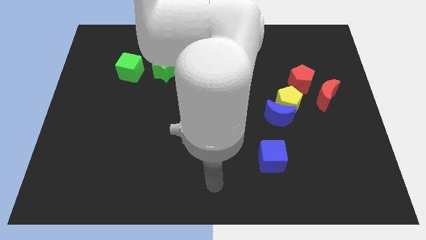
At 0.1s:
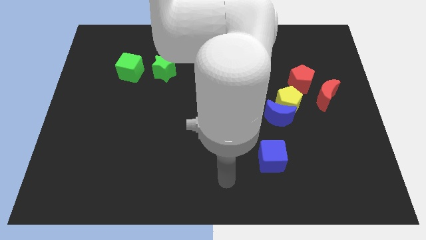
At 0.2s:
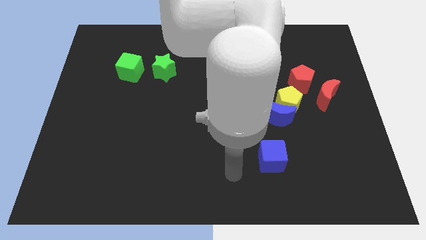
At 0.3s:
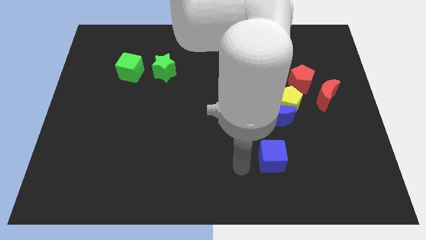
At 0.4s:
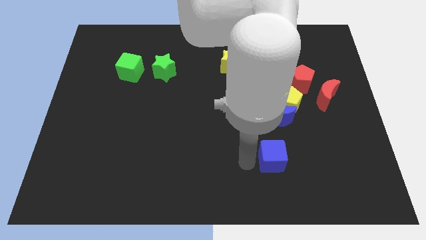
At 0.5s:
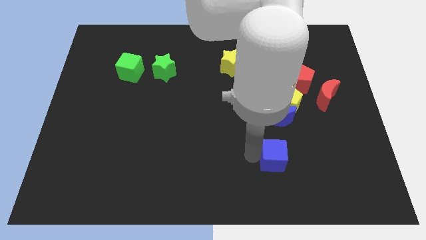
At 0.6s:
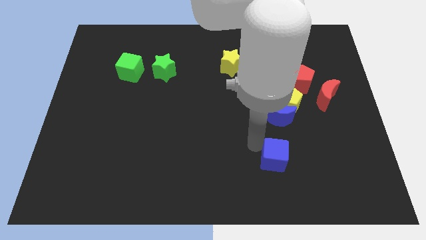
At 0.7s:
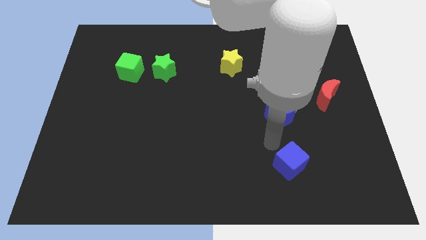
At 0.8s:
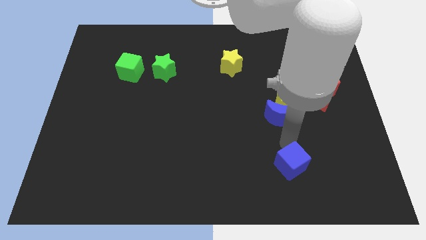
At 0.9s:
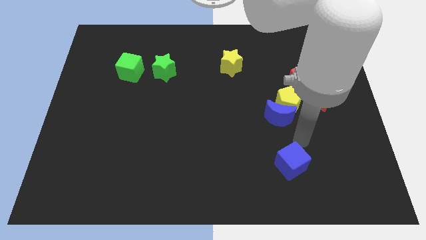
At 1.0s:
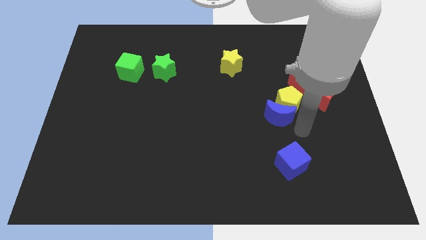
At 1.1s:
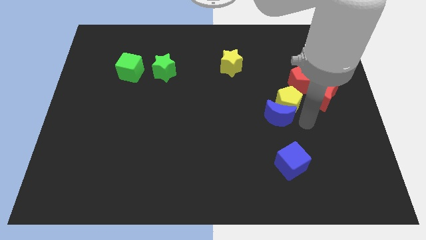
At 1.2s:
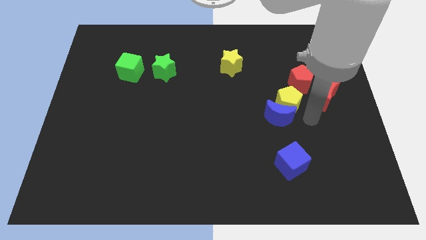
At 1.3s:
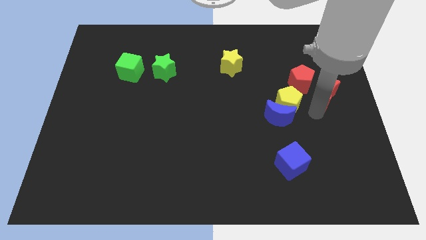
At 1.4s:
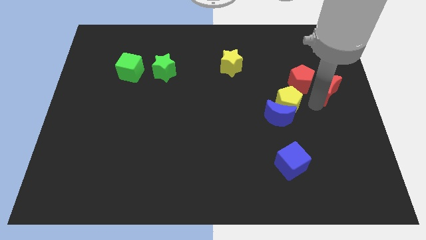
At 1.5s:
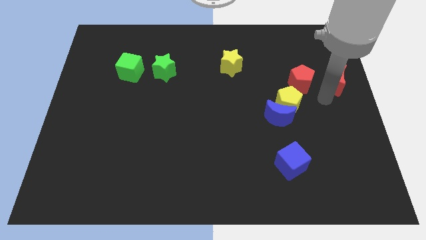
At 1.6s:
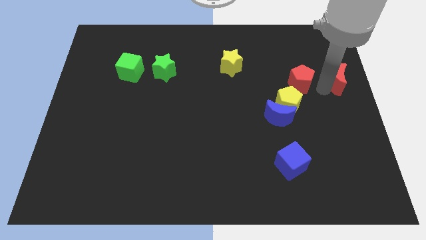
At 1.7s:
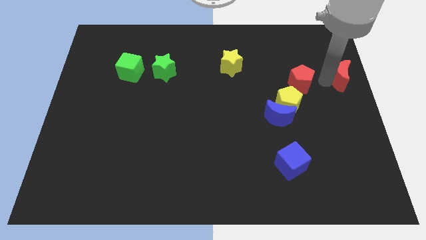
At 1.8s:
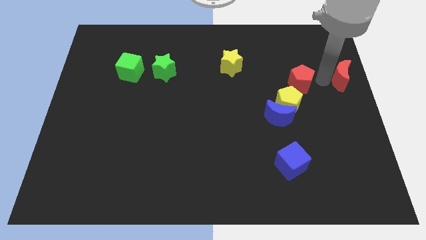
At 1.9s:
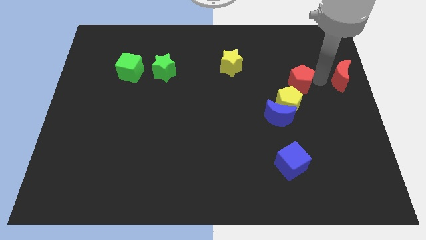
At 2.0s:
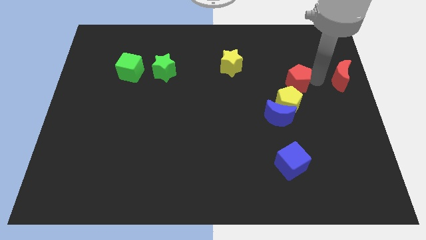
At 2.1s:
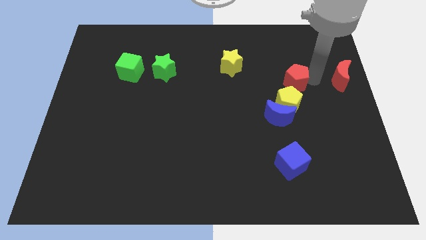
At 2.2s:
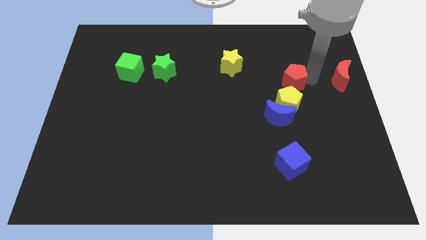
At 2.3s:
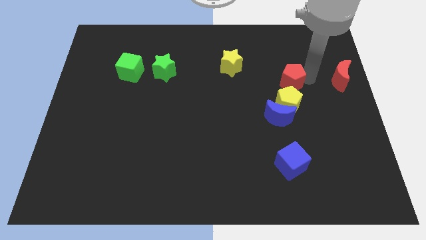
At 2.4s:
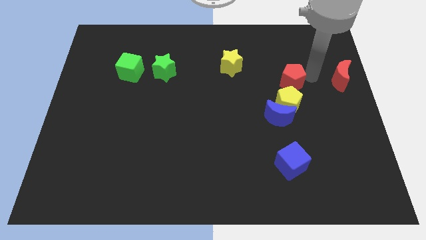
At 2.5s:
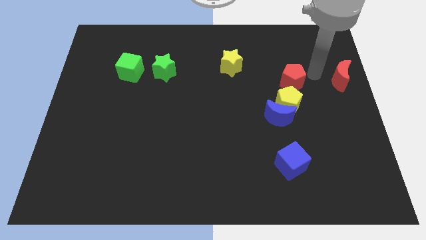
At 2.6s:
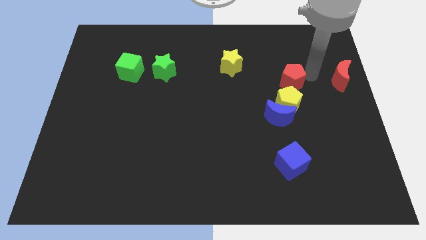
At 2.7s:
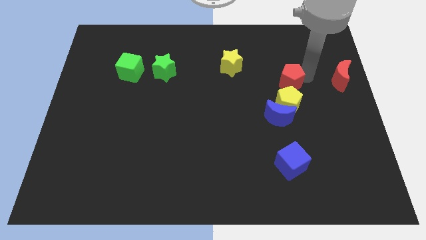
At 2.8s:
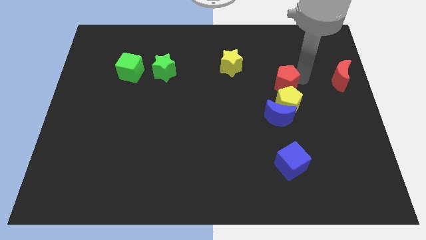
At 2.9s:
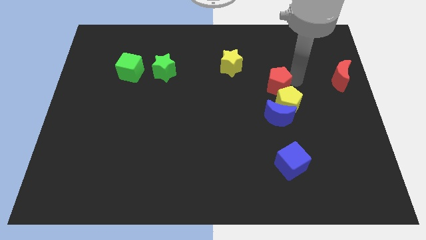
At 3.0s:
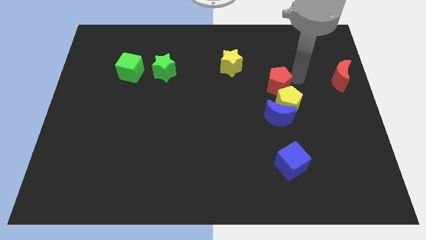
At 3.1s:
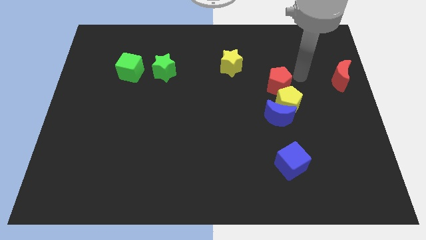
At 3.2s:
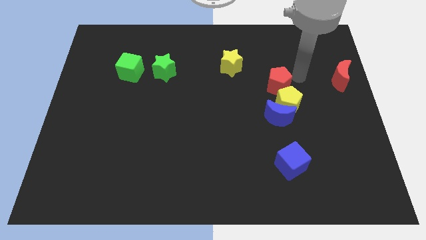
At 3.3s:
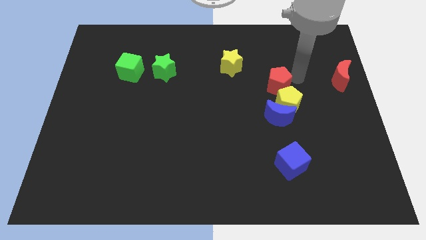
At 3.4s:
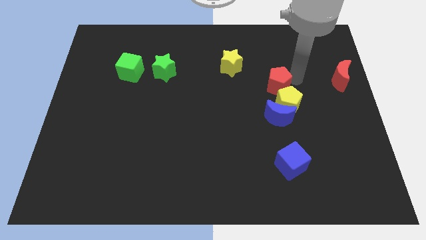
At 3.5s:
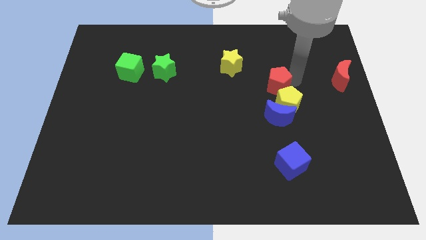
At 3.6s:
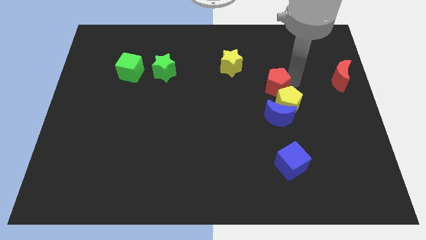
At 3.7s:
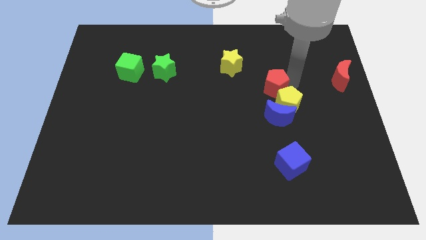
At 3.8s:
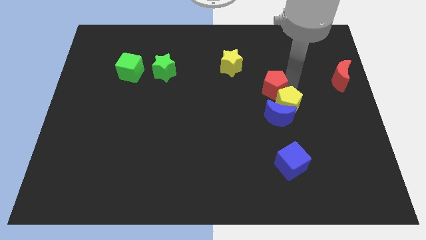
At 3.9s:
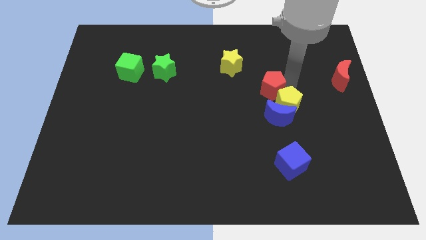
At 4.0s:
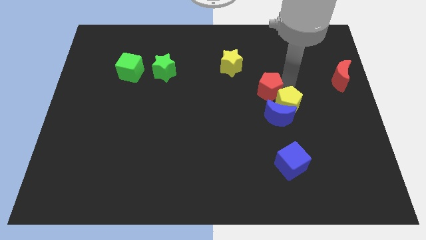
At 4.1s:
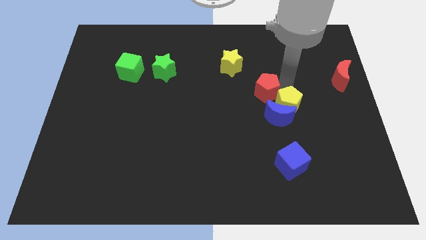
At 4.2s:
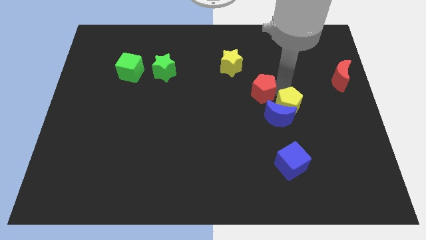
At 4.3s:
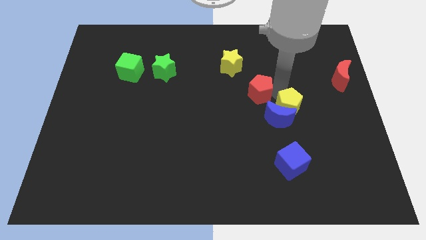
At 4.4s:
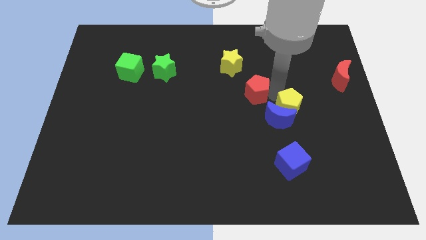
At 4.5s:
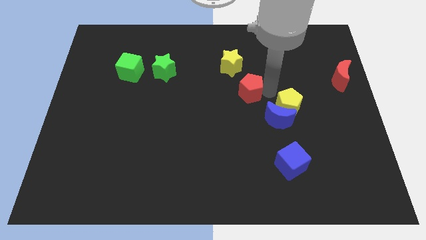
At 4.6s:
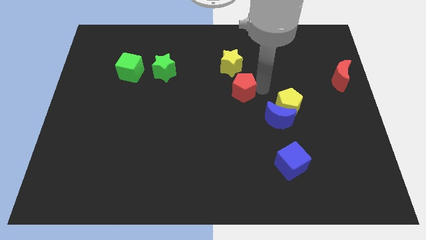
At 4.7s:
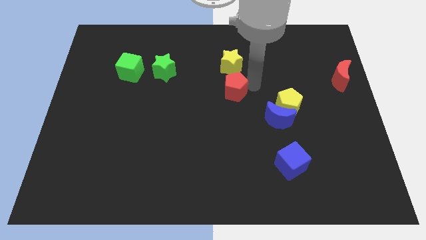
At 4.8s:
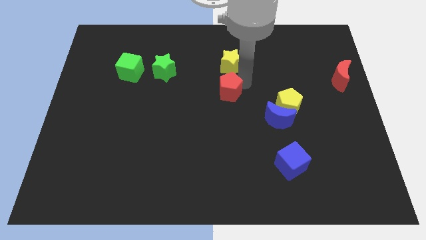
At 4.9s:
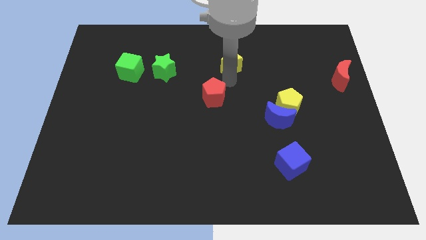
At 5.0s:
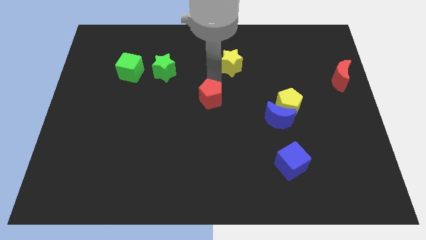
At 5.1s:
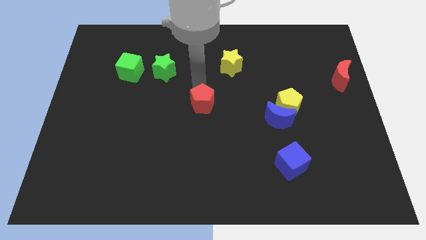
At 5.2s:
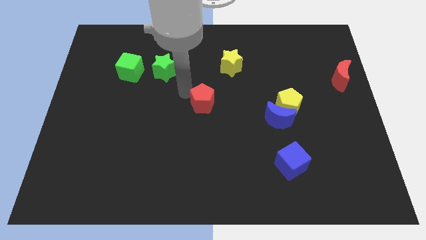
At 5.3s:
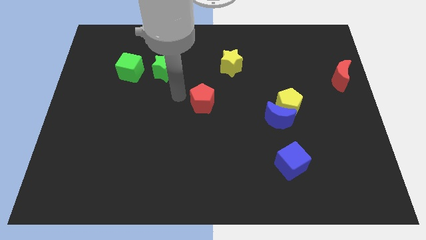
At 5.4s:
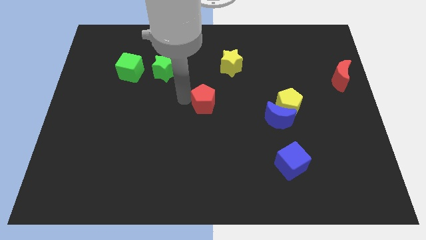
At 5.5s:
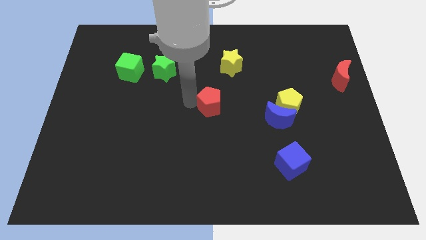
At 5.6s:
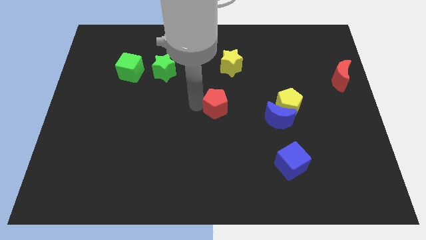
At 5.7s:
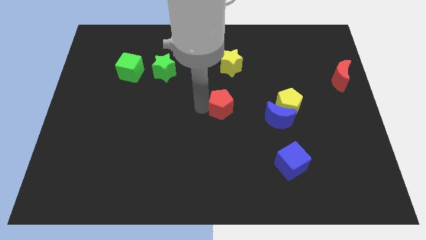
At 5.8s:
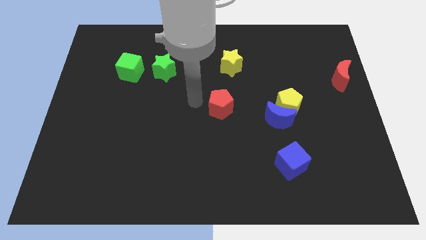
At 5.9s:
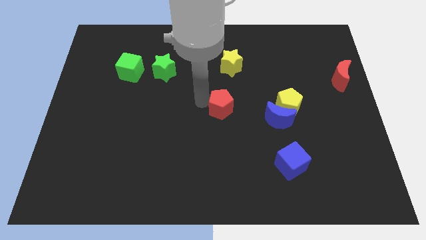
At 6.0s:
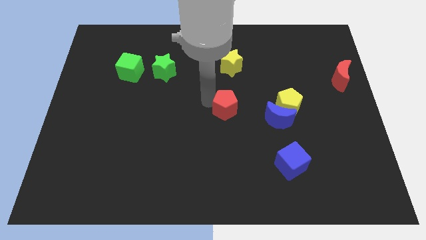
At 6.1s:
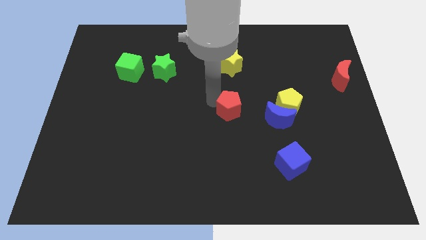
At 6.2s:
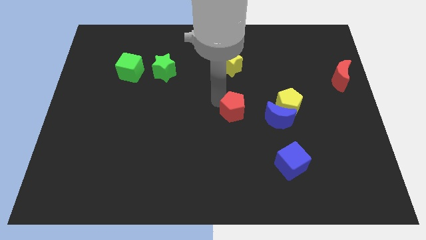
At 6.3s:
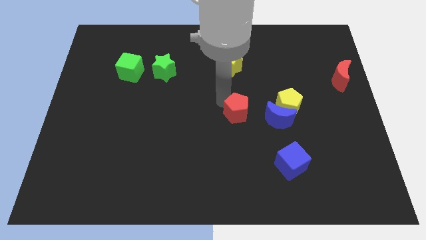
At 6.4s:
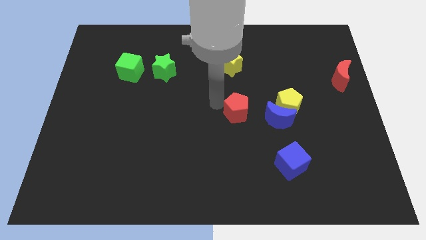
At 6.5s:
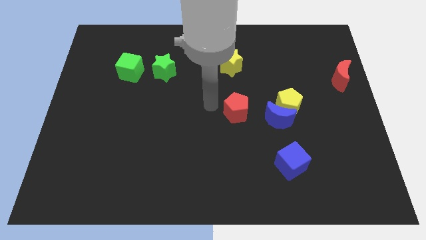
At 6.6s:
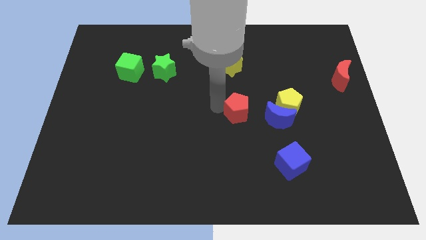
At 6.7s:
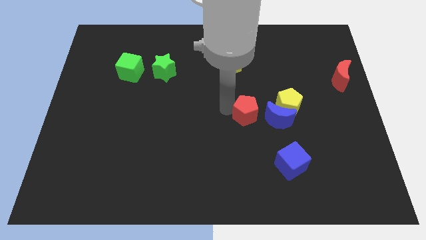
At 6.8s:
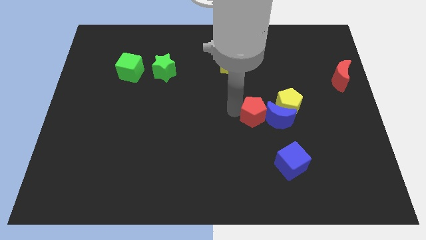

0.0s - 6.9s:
put the red pentagon to the blue moon
